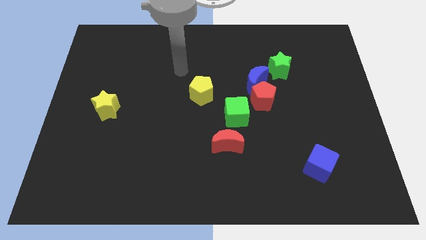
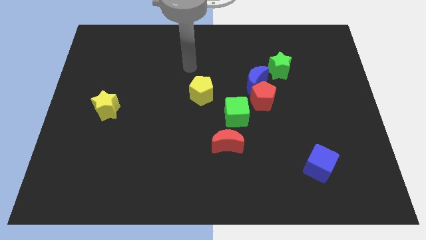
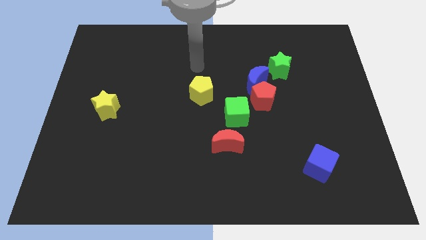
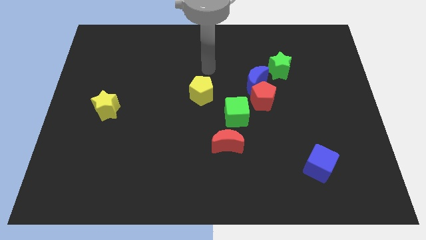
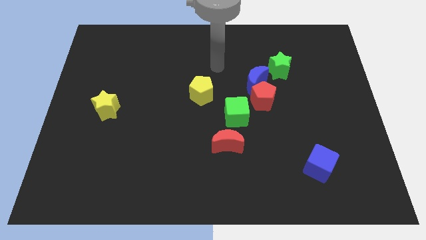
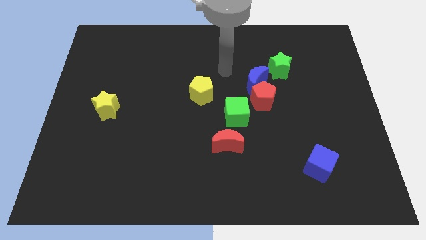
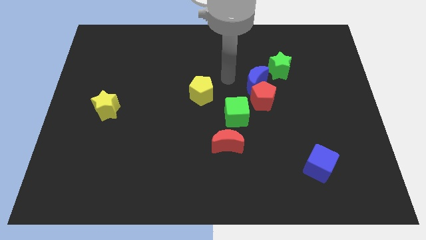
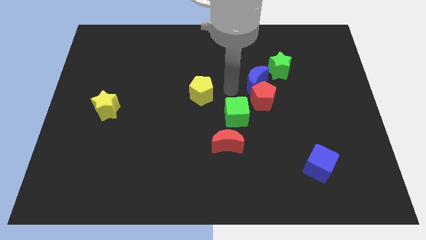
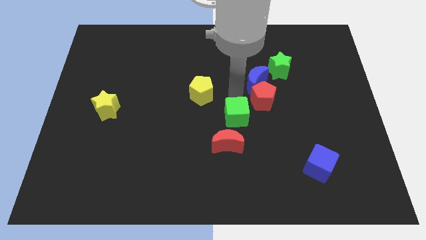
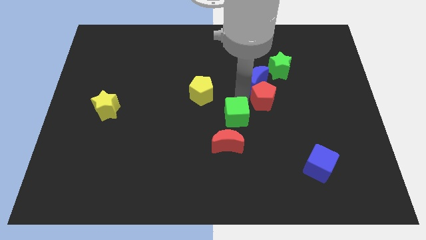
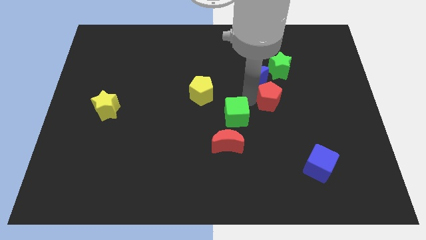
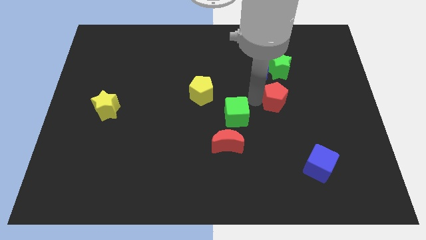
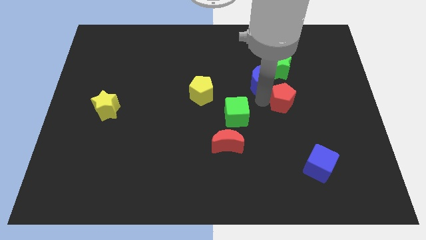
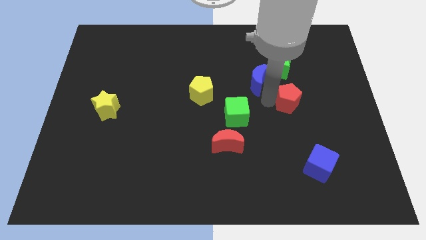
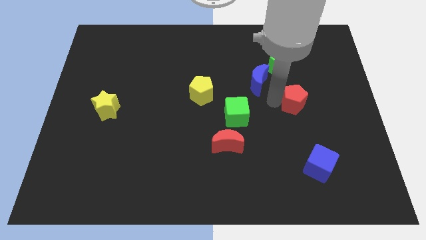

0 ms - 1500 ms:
pull the red pentagon apart from the blue moon and green cube

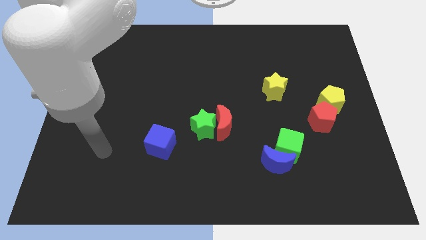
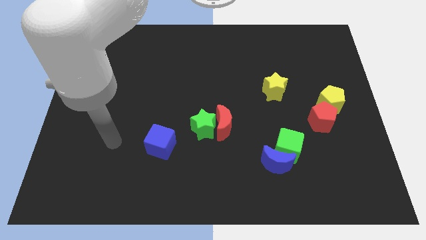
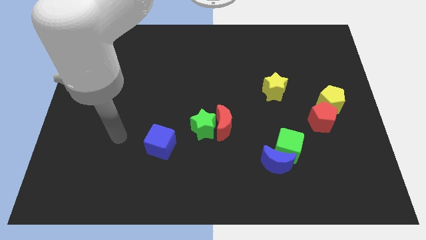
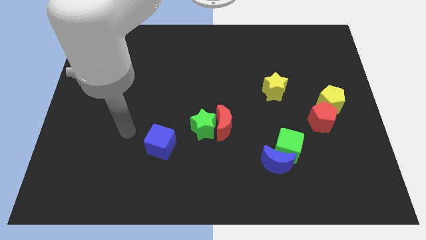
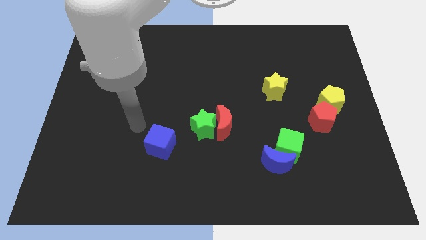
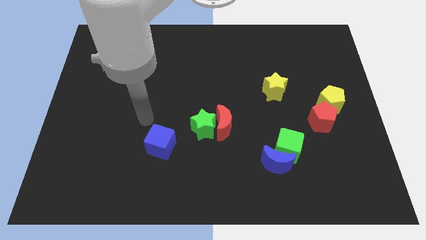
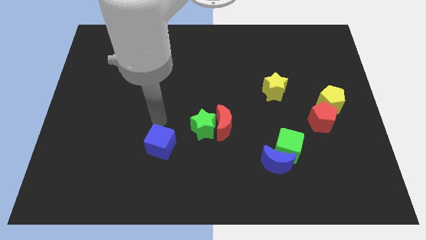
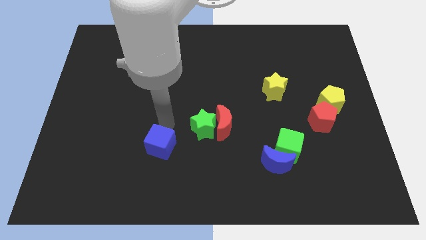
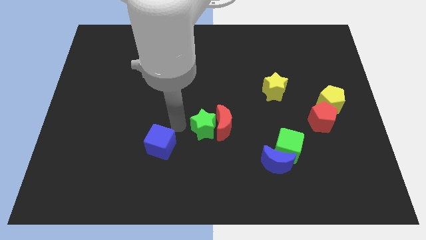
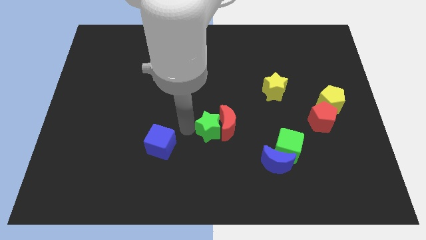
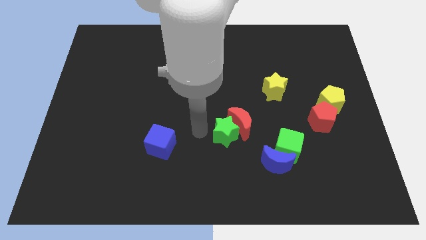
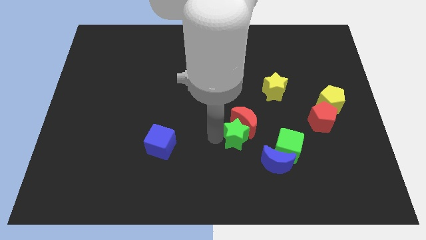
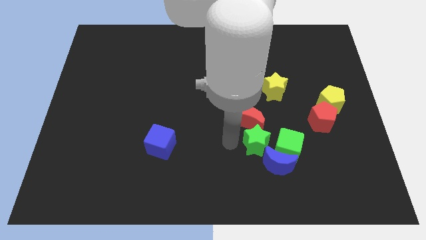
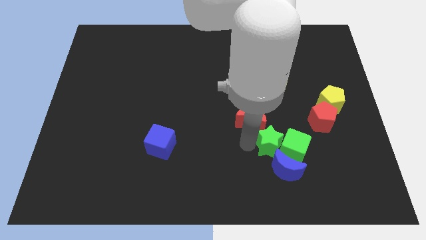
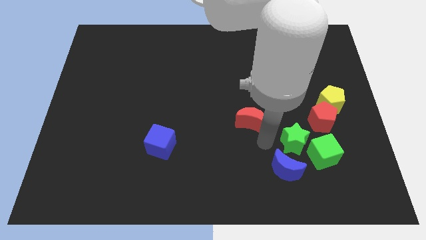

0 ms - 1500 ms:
pull the red moon apart from the green star

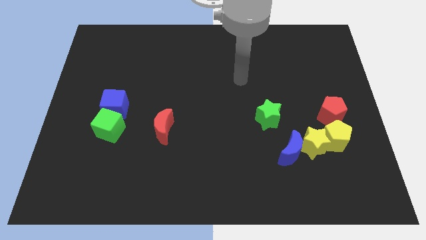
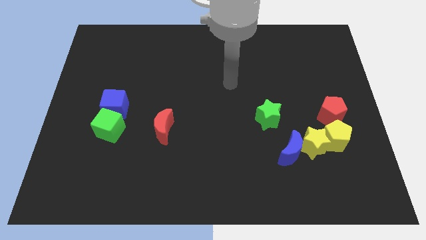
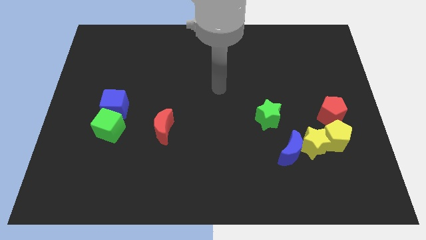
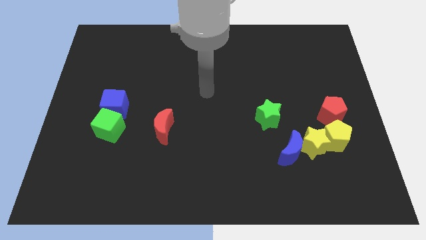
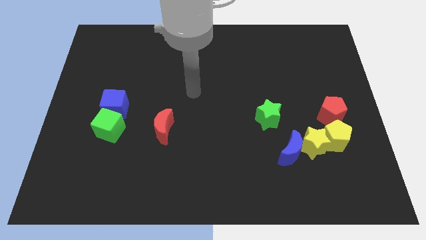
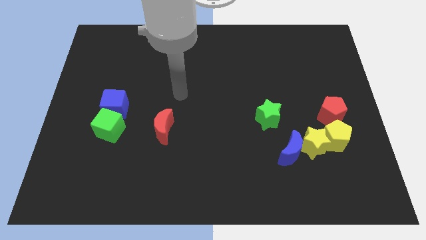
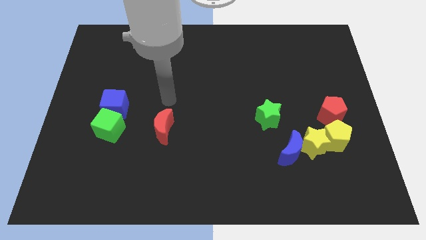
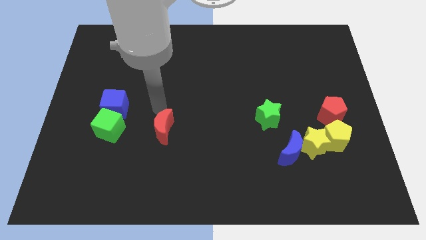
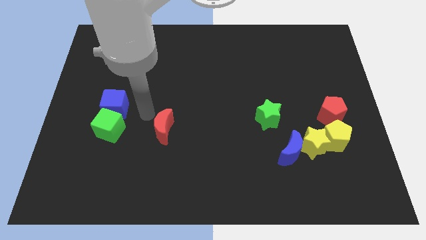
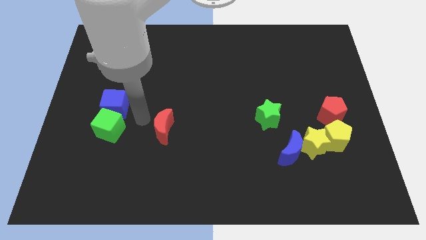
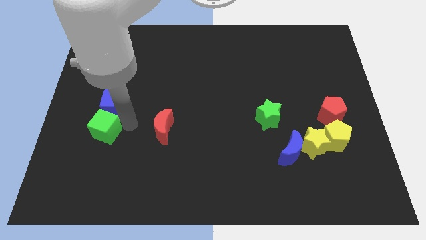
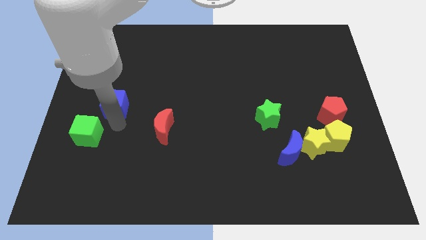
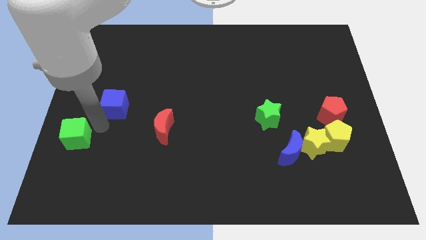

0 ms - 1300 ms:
move the blue cube away from the green cube

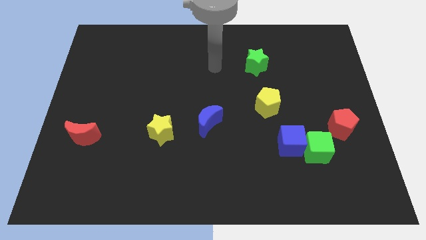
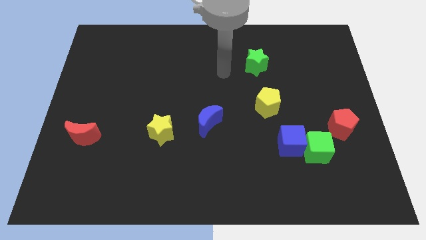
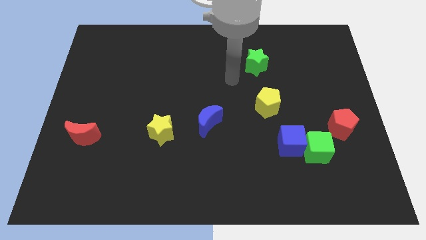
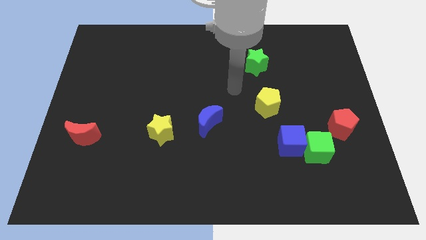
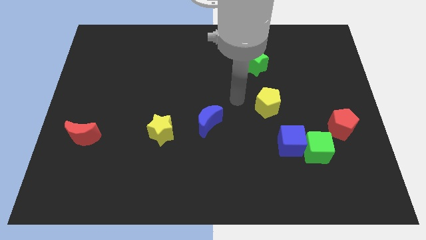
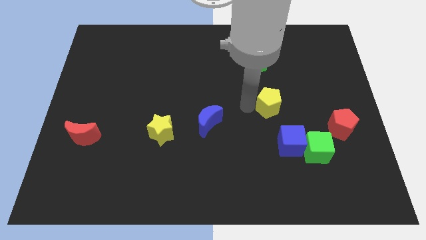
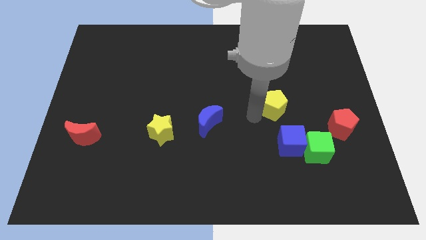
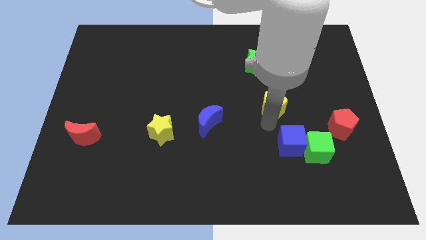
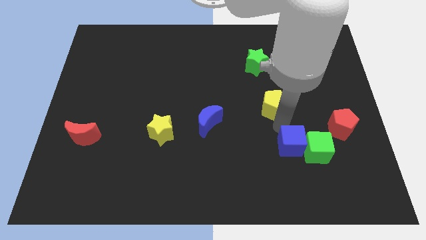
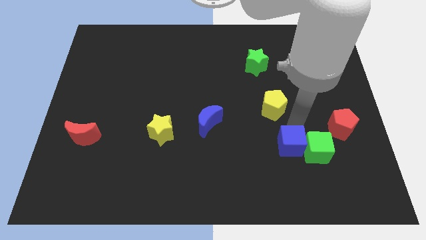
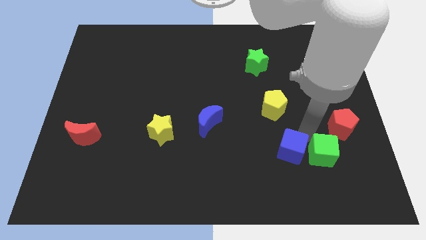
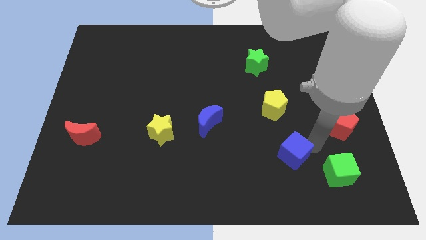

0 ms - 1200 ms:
pull the blue cube apart from the green cube

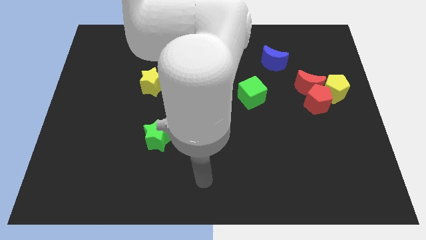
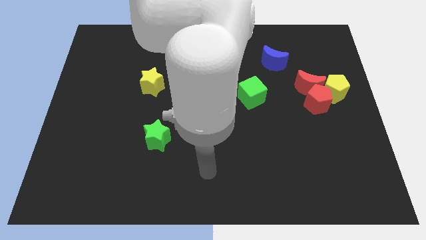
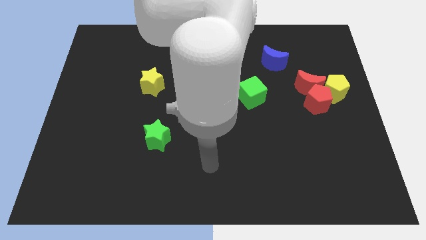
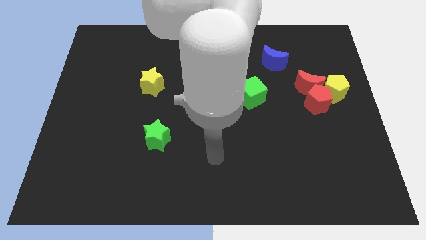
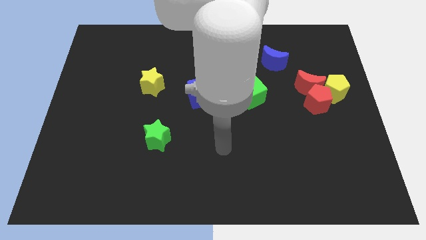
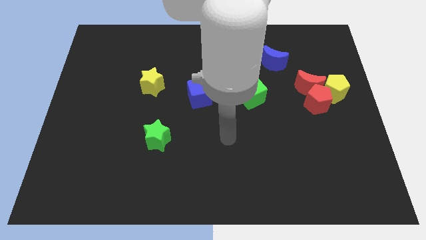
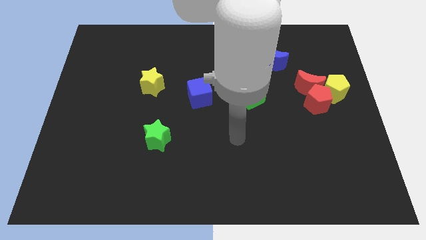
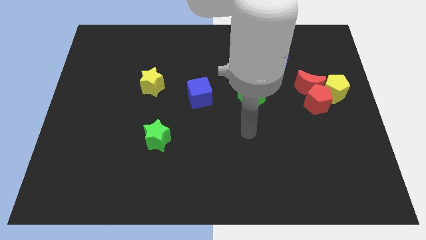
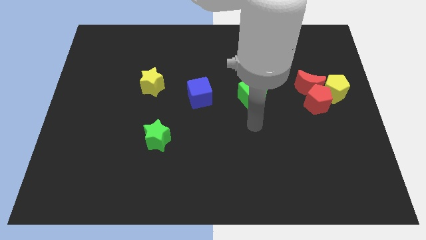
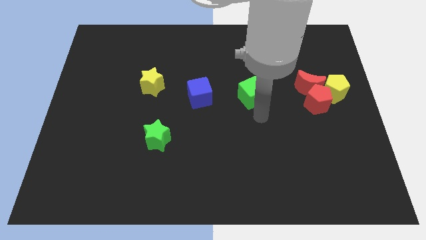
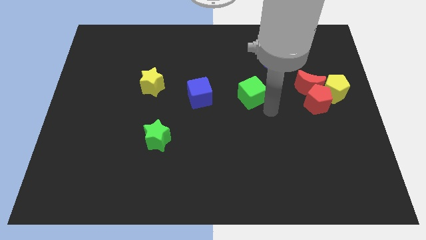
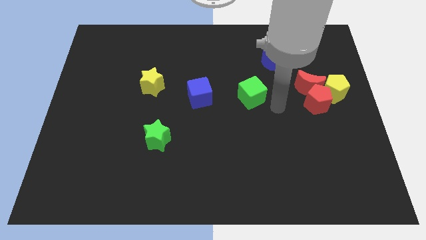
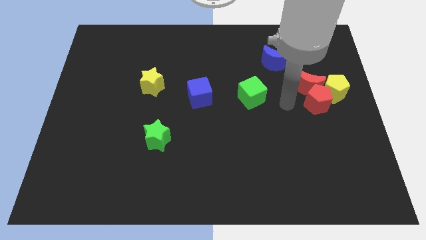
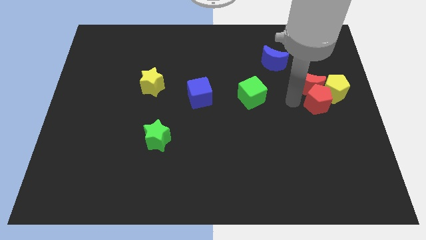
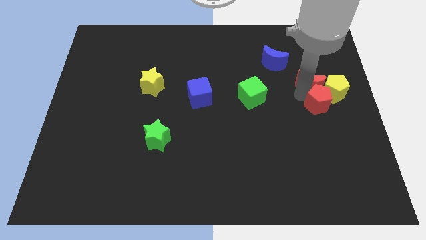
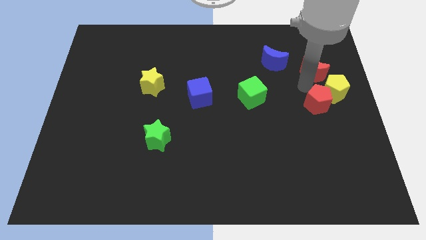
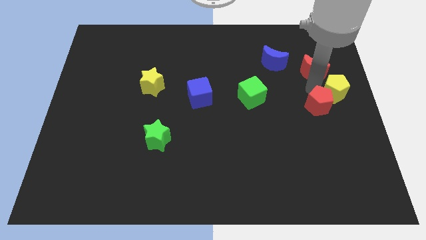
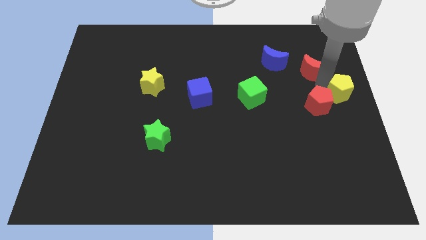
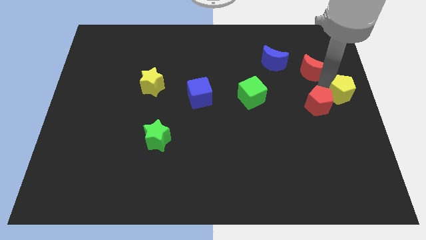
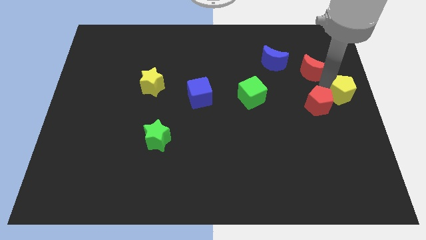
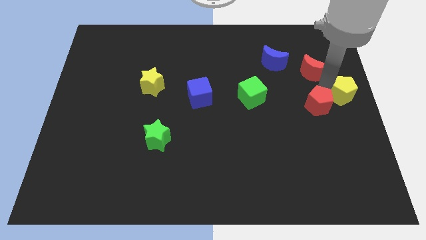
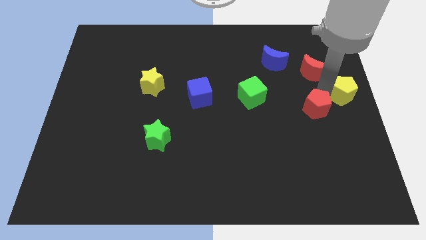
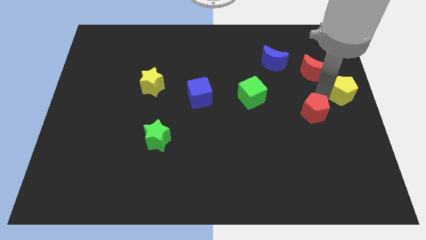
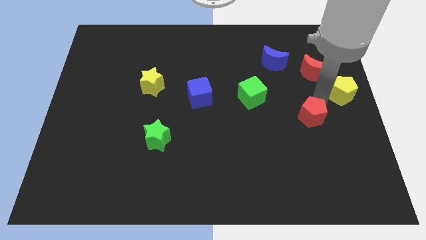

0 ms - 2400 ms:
pull the red pentagon apart from the red moon and yellow pentagon

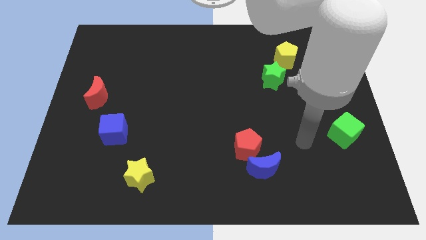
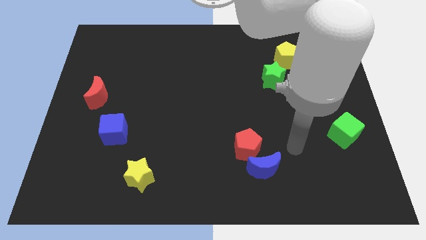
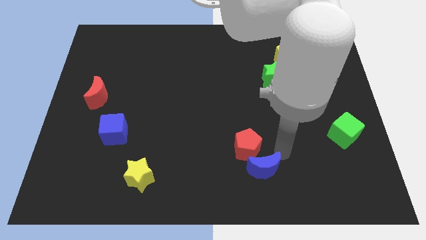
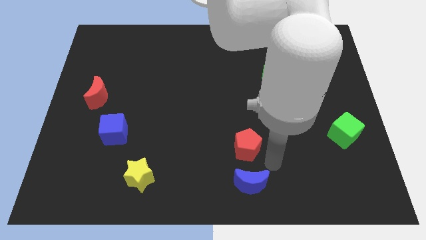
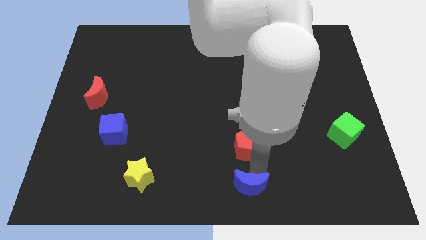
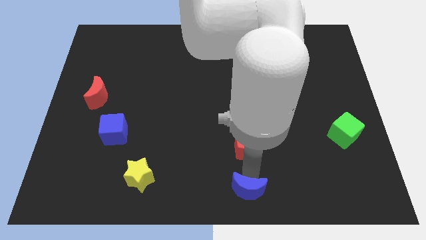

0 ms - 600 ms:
move the red pentagon away from the blue moon

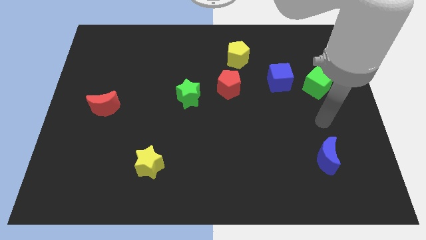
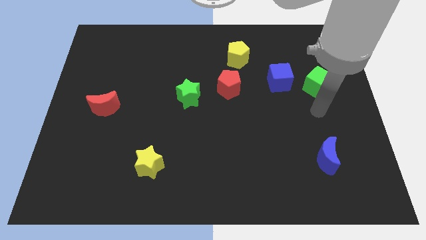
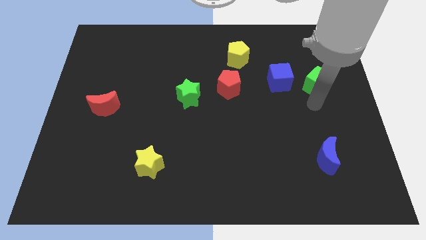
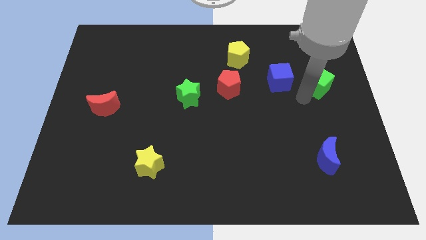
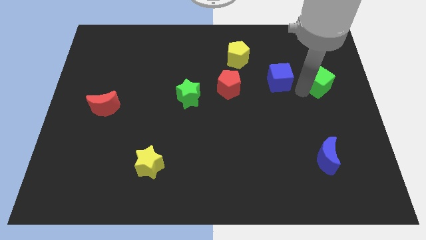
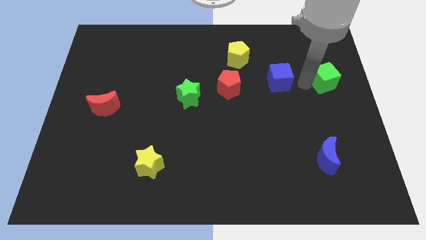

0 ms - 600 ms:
separate the blue cube from the green cube
